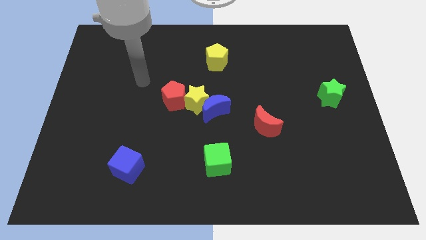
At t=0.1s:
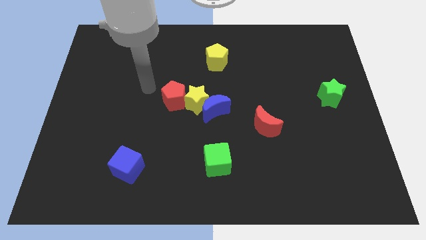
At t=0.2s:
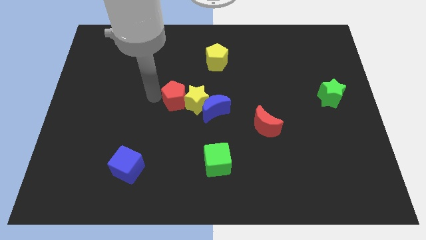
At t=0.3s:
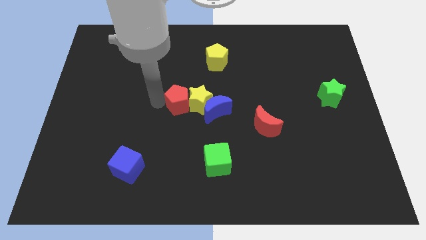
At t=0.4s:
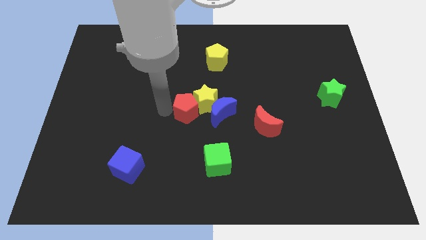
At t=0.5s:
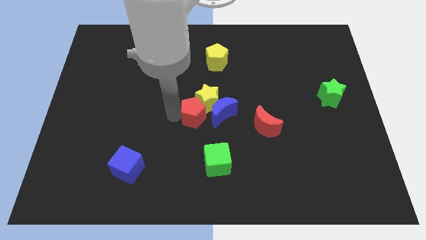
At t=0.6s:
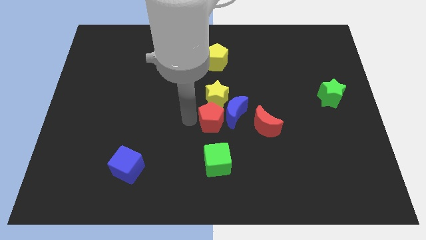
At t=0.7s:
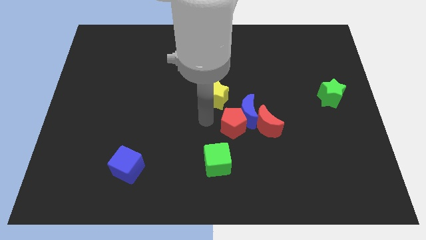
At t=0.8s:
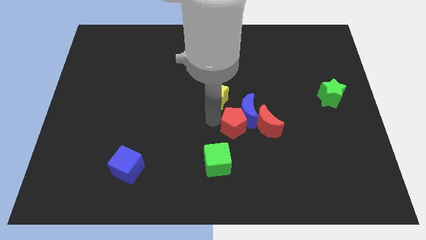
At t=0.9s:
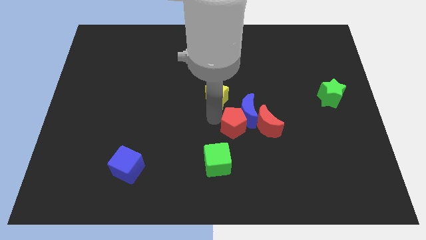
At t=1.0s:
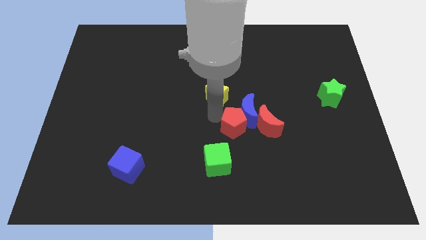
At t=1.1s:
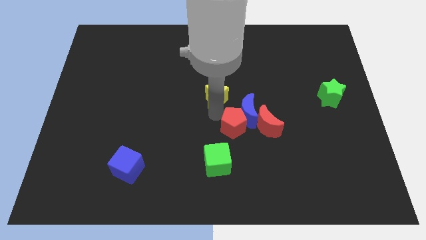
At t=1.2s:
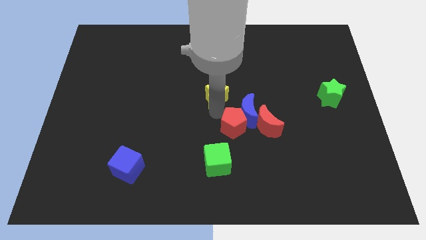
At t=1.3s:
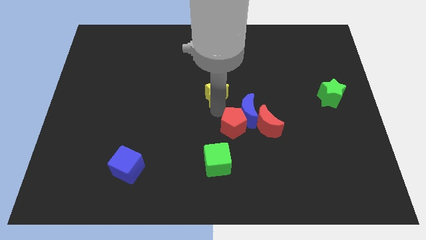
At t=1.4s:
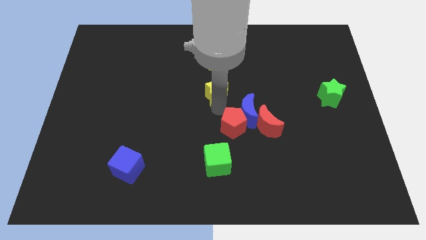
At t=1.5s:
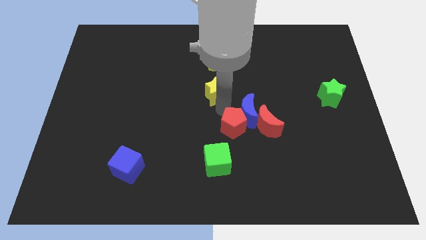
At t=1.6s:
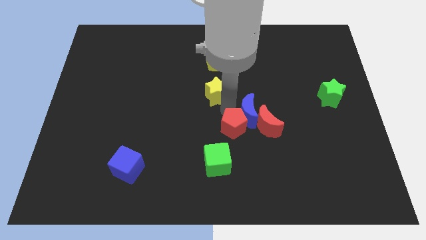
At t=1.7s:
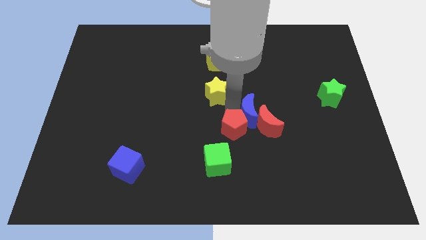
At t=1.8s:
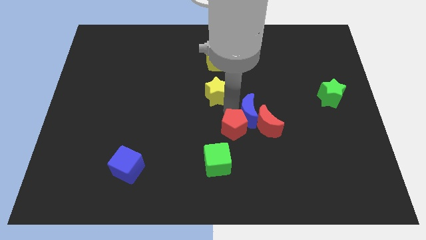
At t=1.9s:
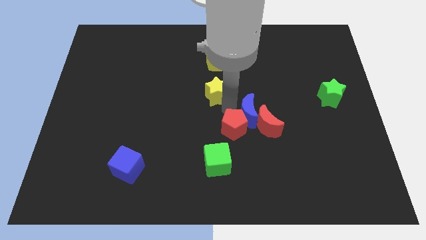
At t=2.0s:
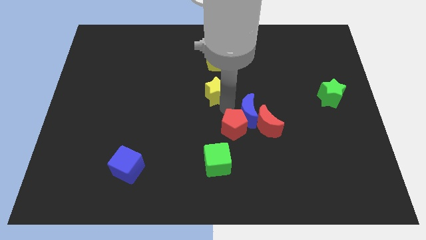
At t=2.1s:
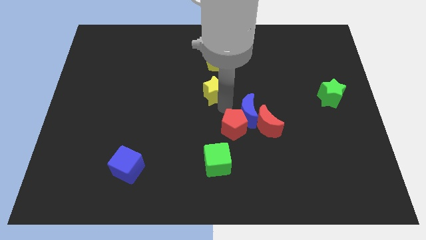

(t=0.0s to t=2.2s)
pull the yellow star apart from the blue moon and red pentagon

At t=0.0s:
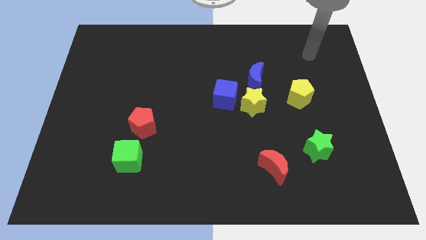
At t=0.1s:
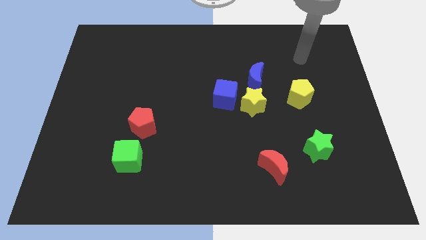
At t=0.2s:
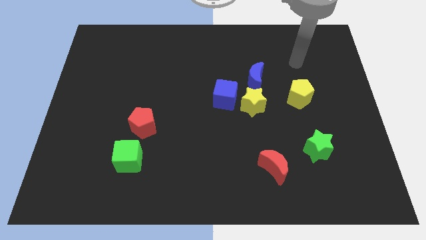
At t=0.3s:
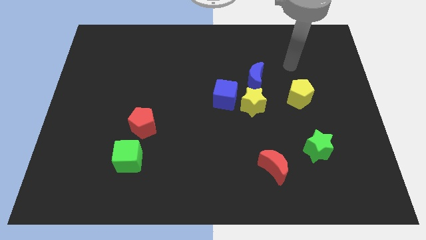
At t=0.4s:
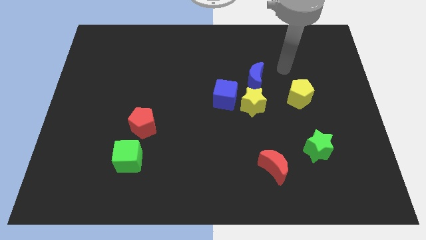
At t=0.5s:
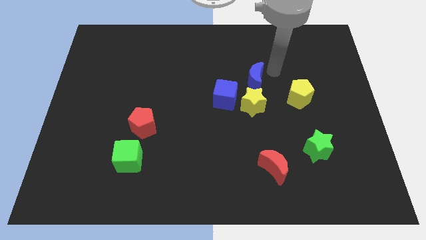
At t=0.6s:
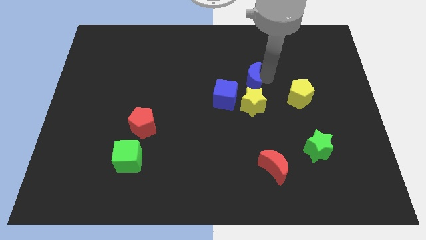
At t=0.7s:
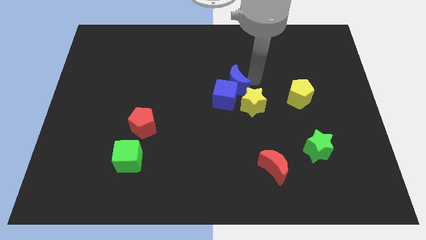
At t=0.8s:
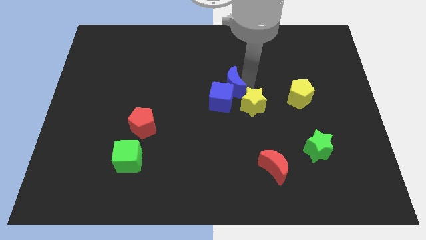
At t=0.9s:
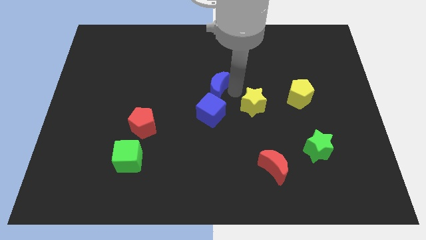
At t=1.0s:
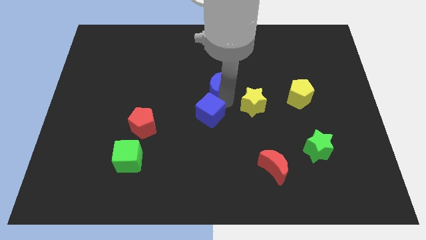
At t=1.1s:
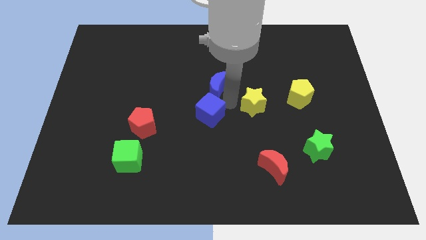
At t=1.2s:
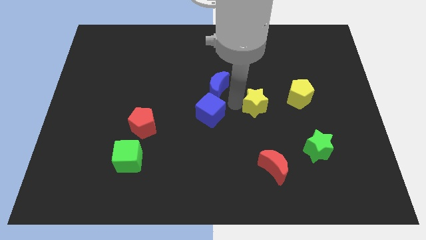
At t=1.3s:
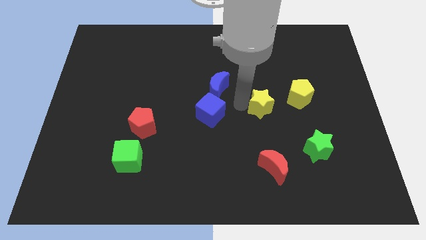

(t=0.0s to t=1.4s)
separate the yellow star from the blue cube and blue moon

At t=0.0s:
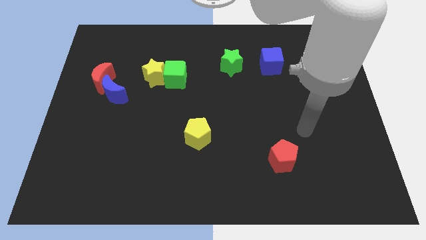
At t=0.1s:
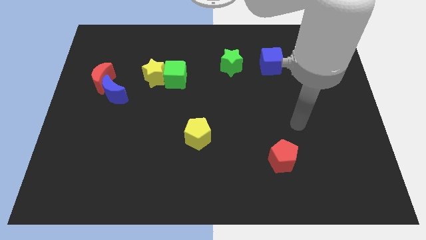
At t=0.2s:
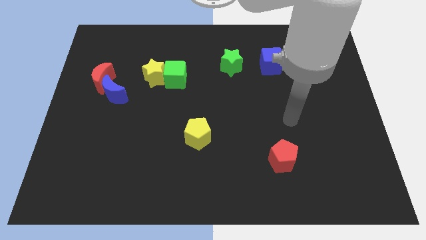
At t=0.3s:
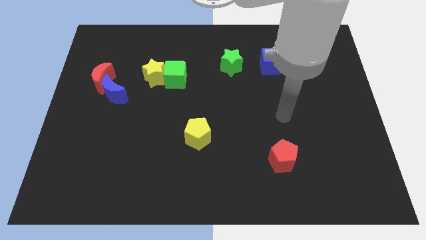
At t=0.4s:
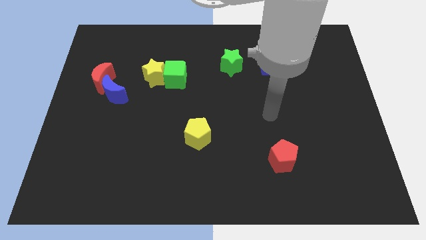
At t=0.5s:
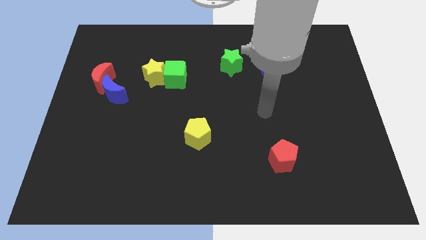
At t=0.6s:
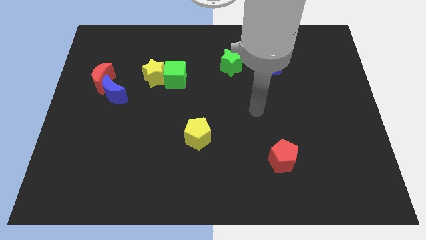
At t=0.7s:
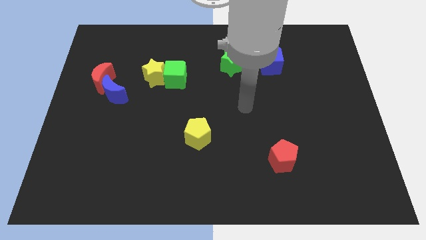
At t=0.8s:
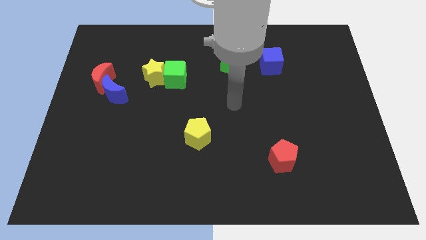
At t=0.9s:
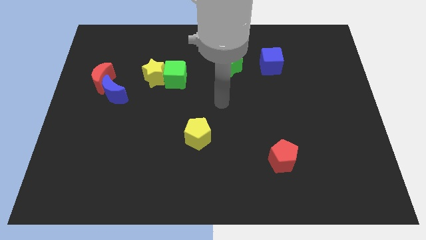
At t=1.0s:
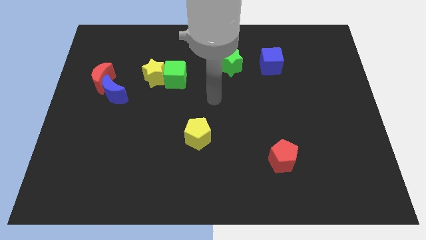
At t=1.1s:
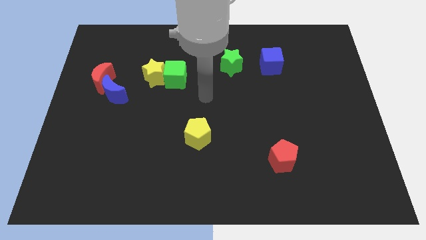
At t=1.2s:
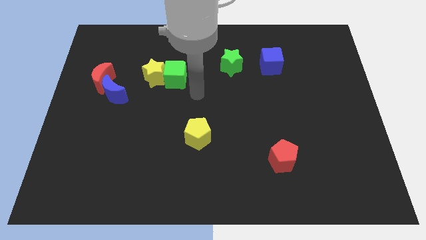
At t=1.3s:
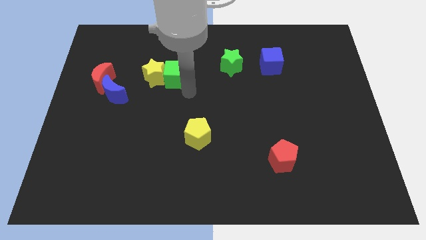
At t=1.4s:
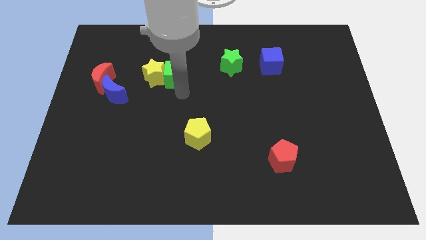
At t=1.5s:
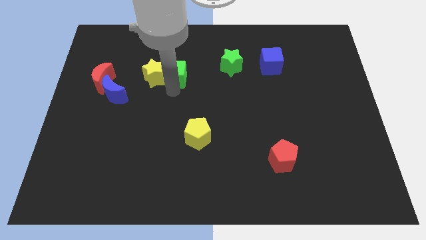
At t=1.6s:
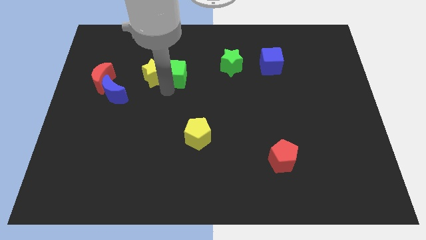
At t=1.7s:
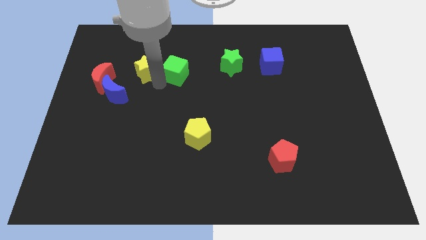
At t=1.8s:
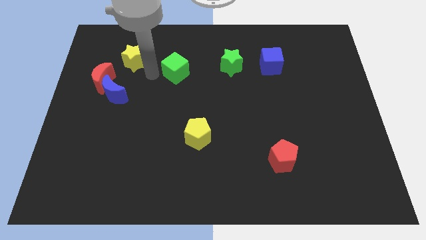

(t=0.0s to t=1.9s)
move the green cube away from the yellow star

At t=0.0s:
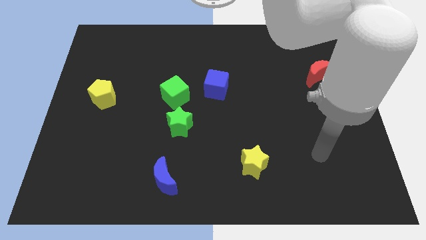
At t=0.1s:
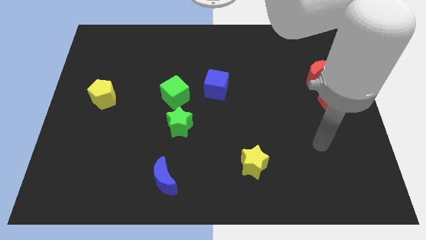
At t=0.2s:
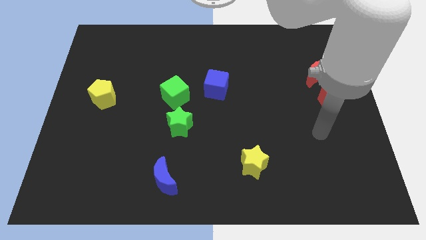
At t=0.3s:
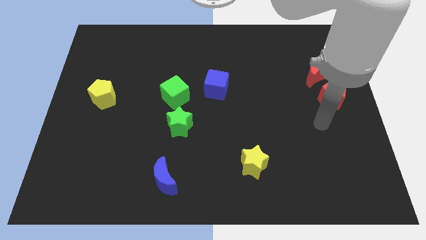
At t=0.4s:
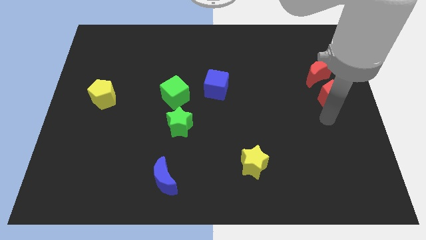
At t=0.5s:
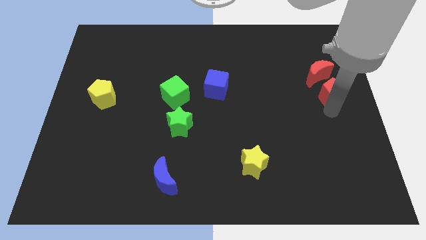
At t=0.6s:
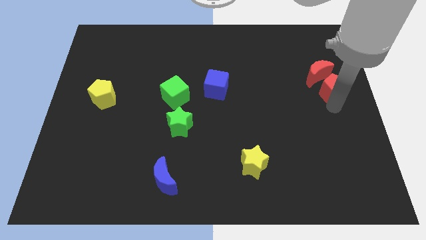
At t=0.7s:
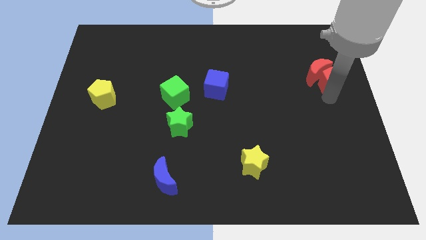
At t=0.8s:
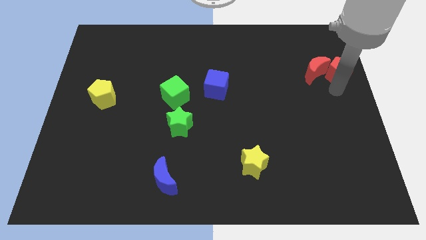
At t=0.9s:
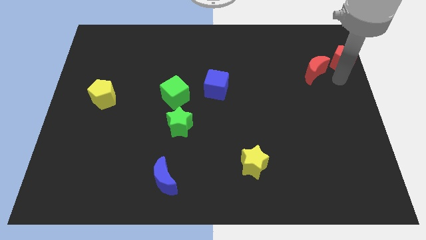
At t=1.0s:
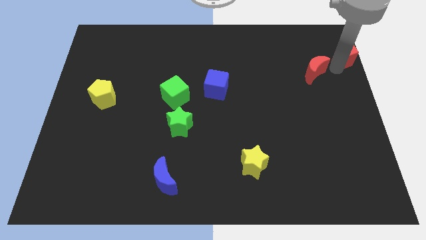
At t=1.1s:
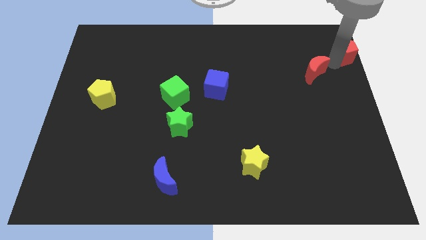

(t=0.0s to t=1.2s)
move the red moon away from the red pentagon

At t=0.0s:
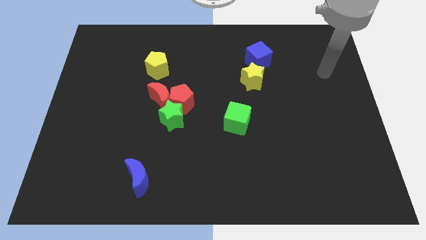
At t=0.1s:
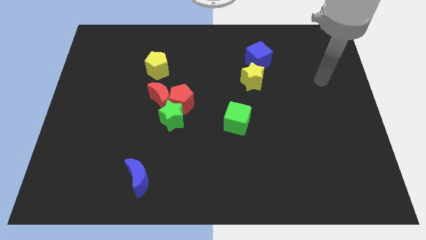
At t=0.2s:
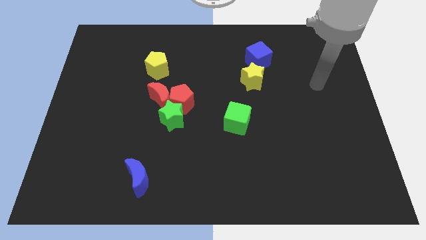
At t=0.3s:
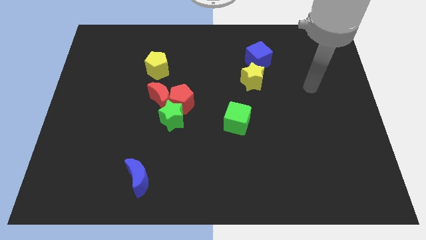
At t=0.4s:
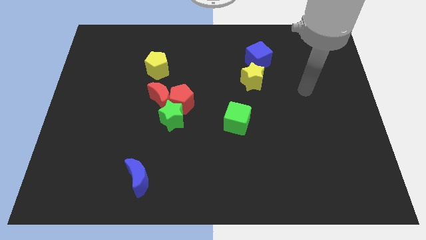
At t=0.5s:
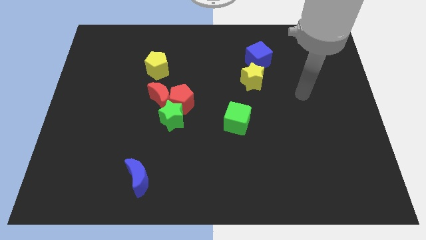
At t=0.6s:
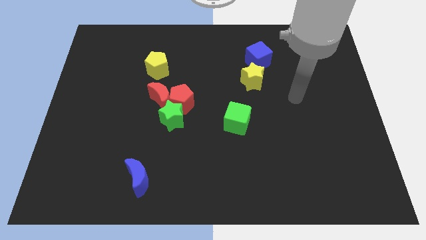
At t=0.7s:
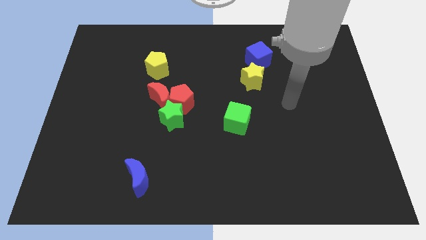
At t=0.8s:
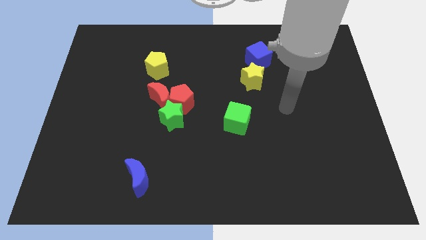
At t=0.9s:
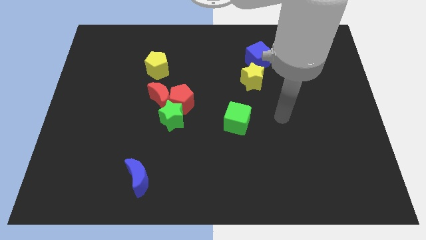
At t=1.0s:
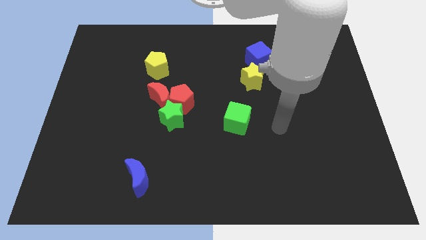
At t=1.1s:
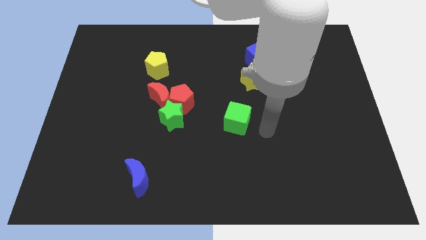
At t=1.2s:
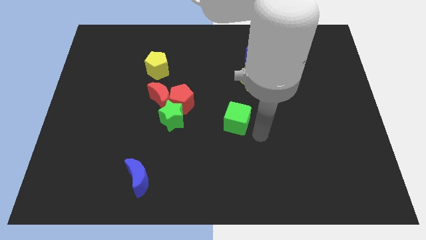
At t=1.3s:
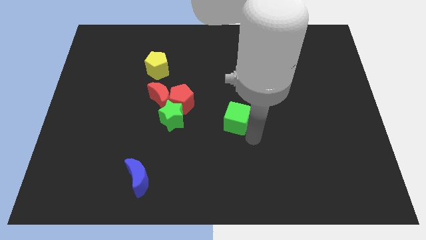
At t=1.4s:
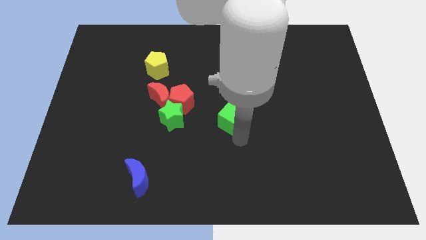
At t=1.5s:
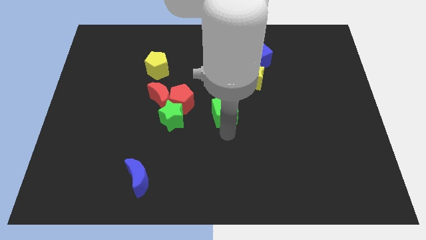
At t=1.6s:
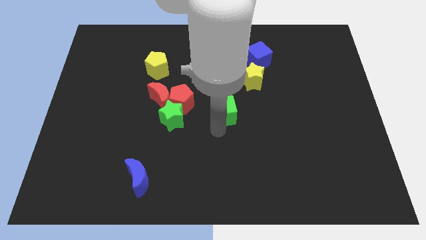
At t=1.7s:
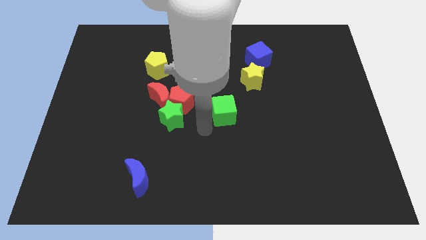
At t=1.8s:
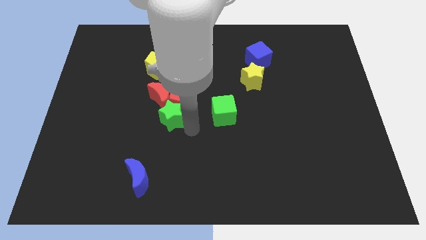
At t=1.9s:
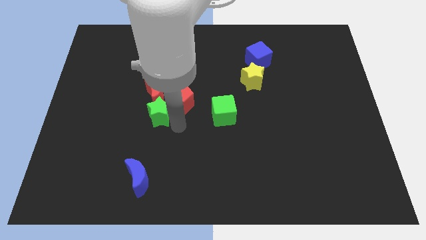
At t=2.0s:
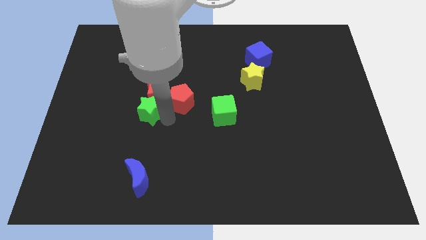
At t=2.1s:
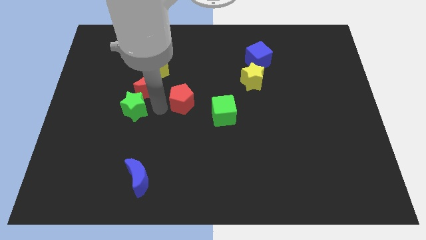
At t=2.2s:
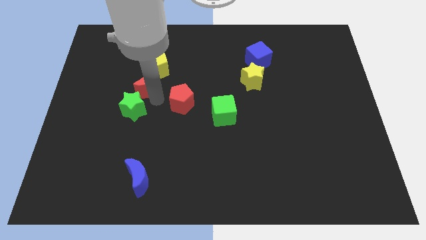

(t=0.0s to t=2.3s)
separate the red pentagon from the green star and red moon

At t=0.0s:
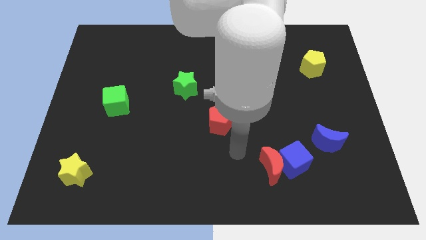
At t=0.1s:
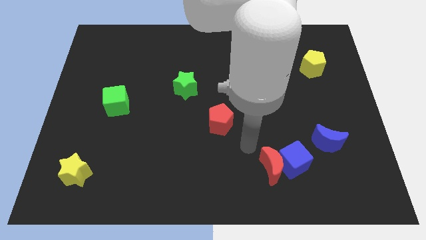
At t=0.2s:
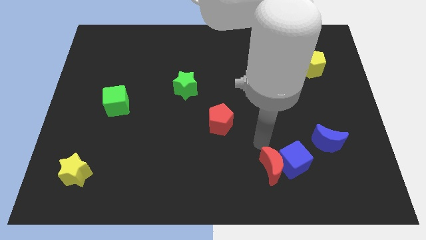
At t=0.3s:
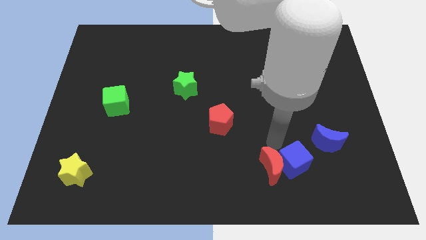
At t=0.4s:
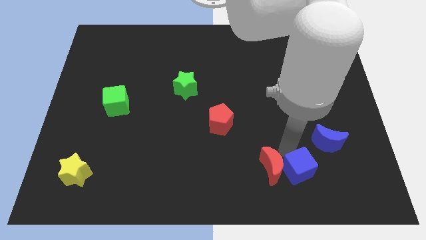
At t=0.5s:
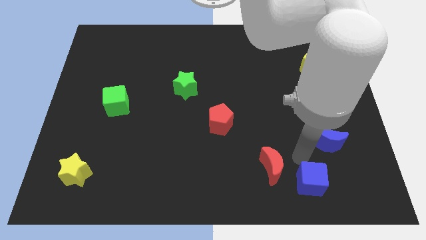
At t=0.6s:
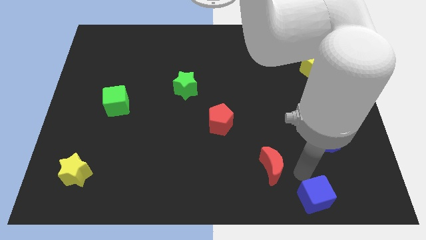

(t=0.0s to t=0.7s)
pull the red moon apart from the blue cube
